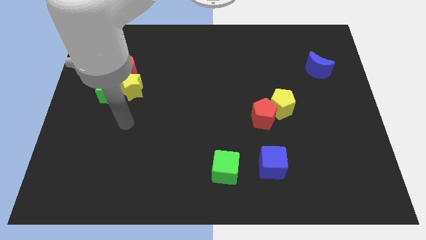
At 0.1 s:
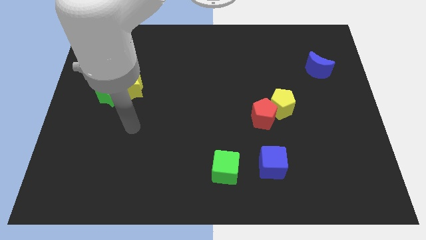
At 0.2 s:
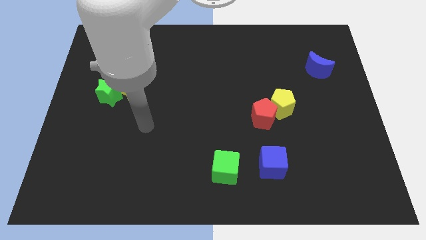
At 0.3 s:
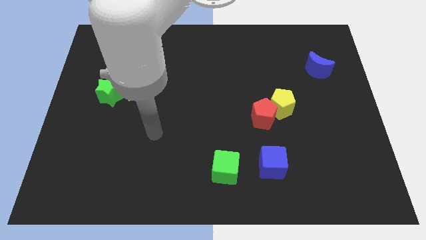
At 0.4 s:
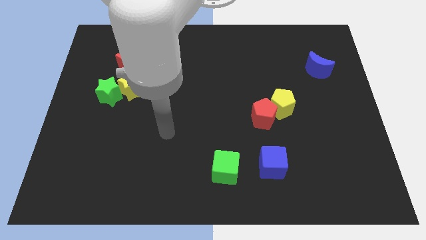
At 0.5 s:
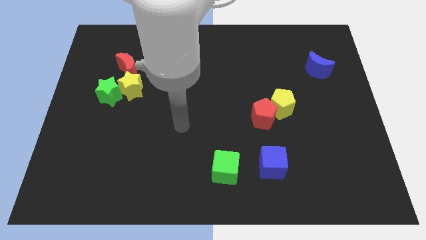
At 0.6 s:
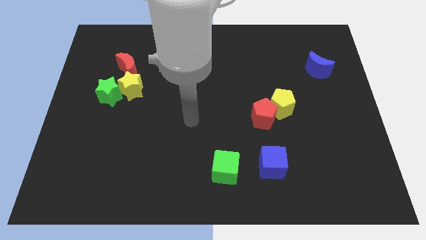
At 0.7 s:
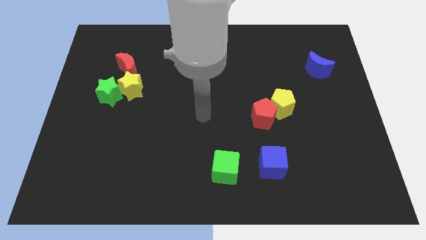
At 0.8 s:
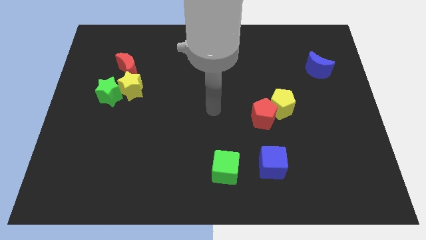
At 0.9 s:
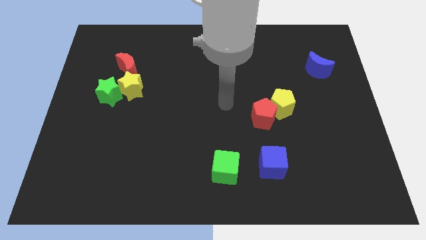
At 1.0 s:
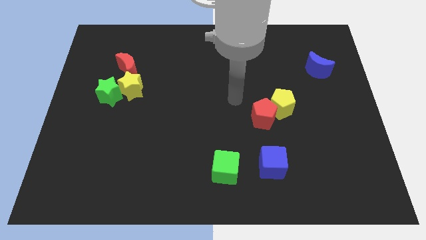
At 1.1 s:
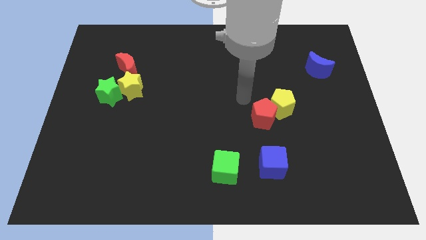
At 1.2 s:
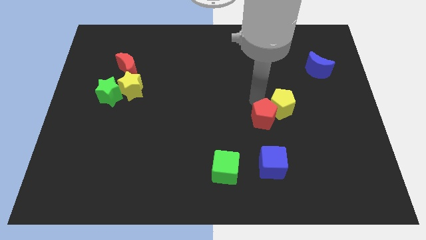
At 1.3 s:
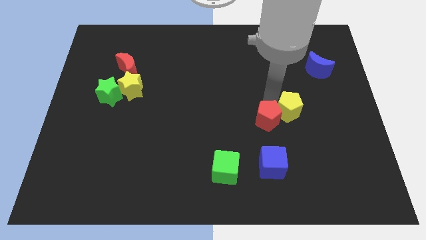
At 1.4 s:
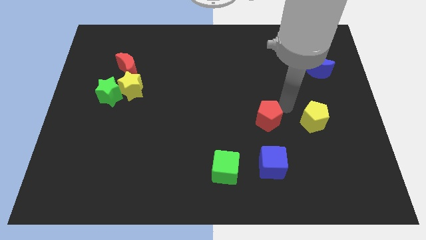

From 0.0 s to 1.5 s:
separate the red pentagon from the yellow pentagon

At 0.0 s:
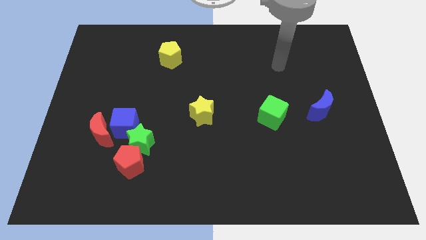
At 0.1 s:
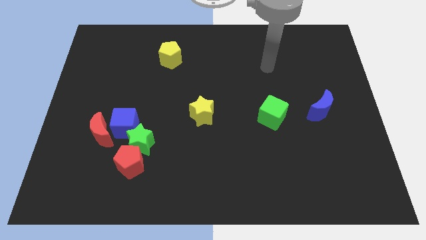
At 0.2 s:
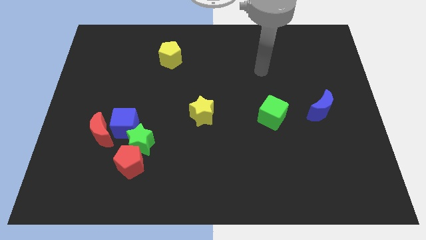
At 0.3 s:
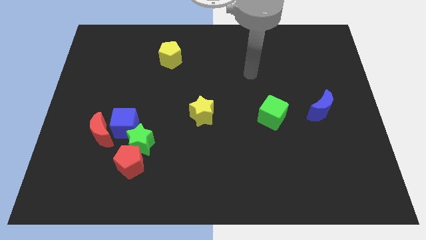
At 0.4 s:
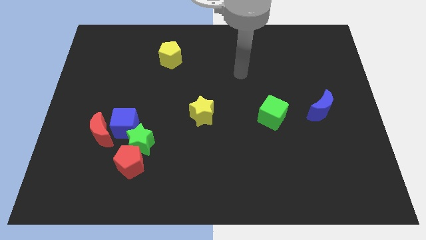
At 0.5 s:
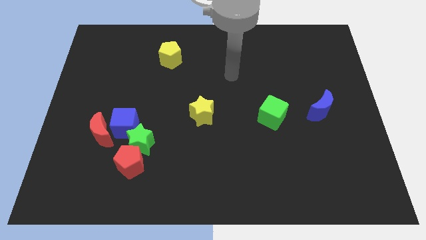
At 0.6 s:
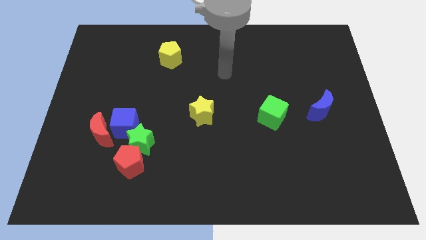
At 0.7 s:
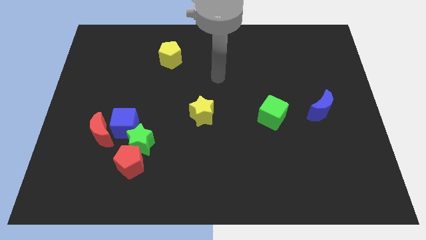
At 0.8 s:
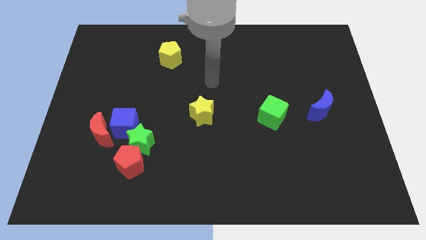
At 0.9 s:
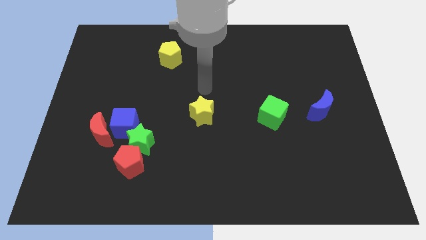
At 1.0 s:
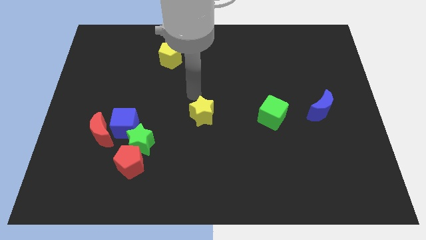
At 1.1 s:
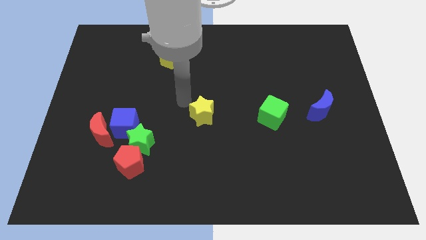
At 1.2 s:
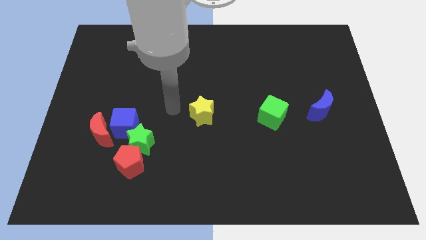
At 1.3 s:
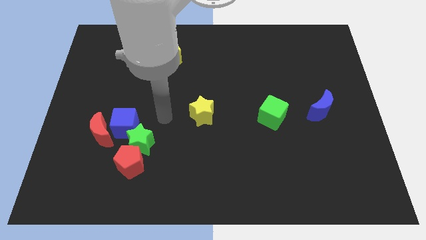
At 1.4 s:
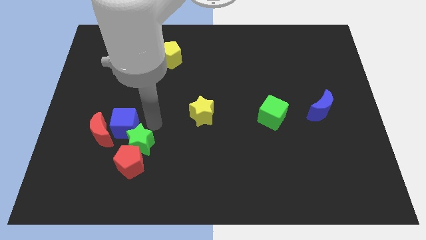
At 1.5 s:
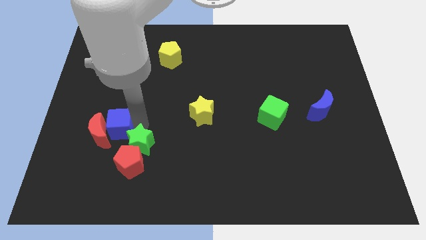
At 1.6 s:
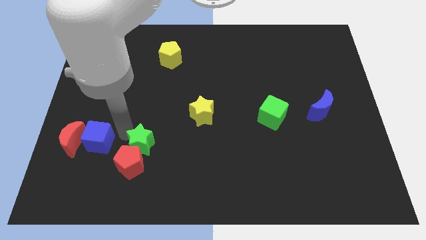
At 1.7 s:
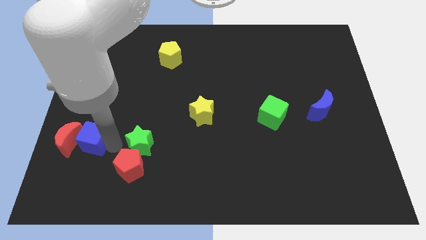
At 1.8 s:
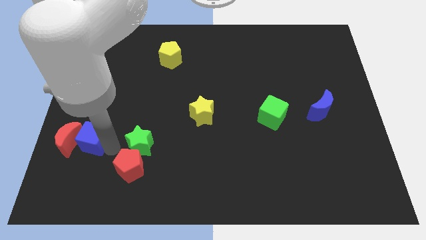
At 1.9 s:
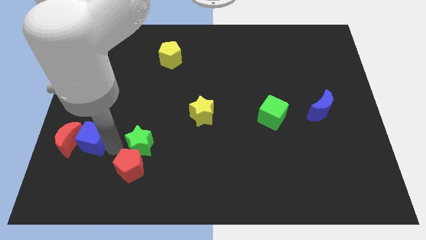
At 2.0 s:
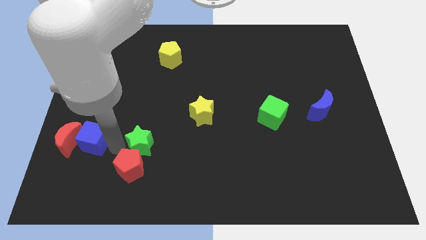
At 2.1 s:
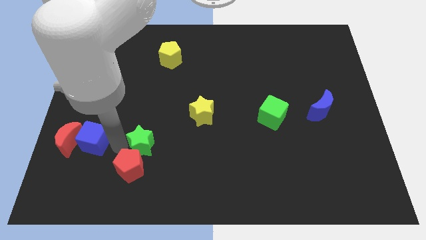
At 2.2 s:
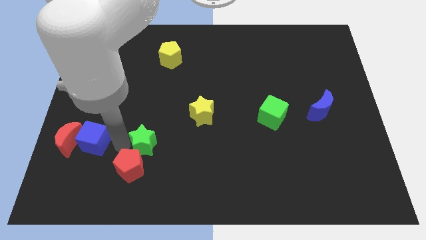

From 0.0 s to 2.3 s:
move the green star away from the group

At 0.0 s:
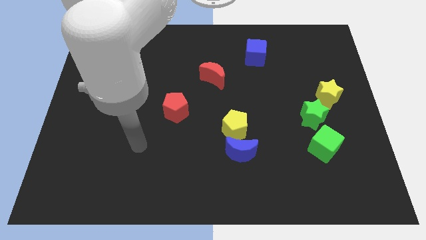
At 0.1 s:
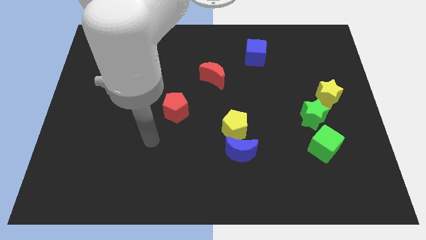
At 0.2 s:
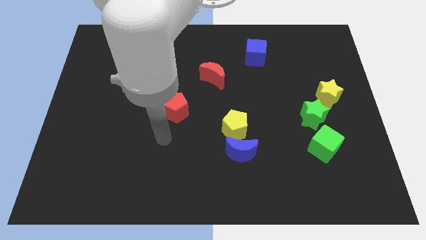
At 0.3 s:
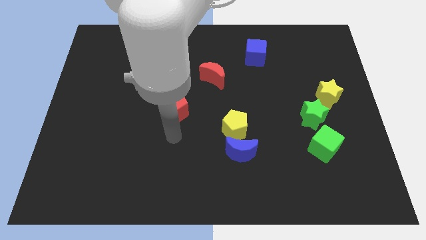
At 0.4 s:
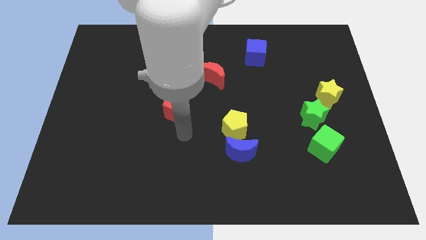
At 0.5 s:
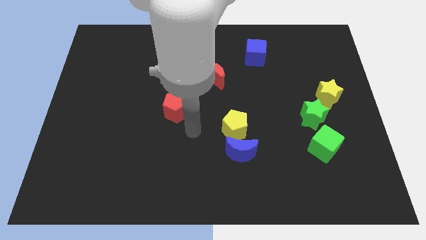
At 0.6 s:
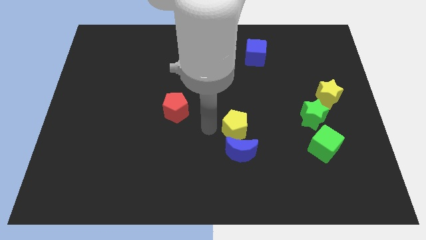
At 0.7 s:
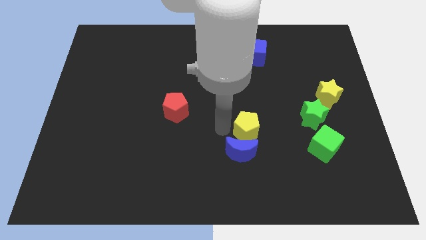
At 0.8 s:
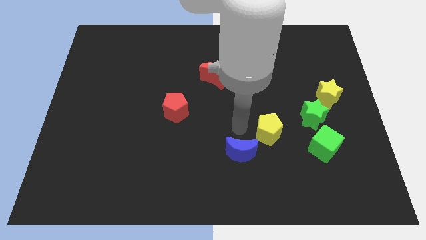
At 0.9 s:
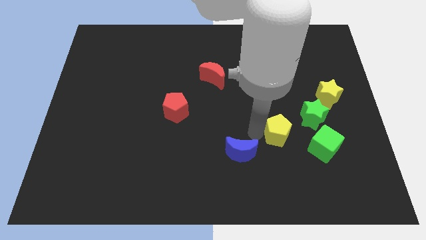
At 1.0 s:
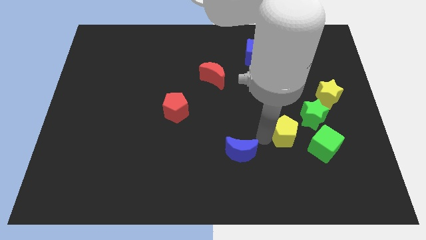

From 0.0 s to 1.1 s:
move the blue moon away from the yellow pentagon

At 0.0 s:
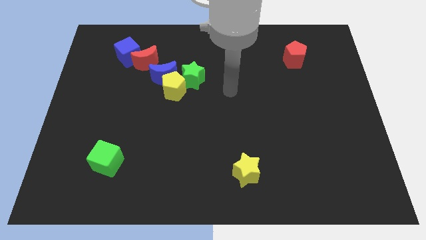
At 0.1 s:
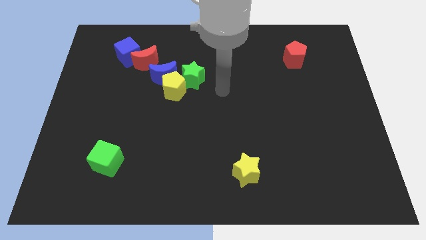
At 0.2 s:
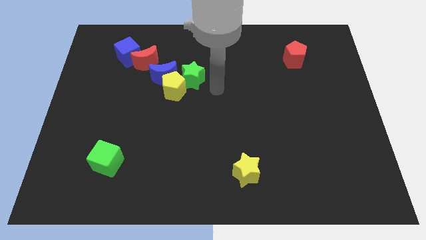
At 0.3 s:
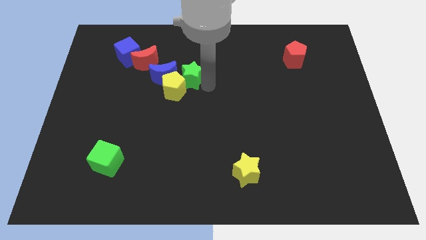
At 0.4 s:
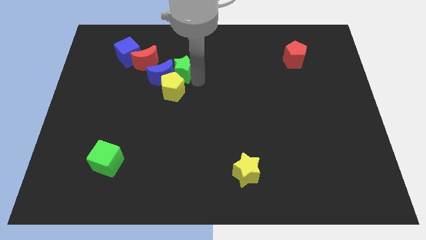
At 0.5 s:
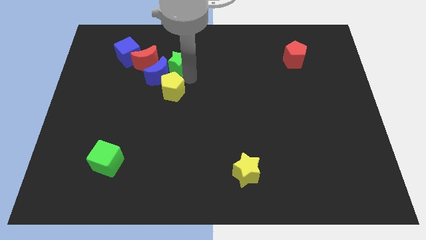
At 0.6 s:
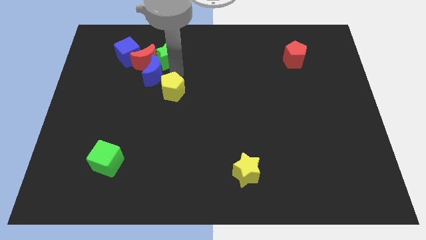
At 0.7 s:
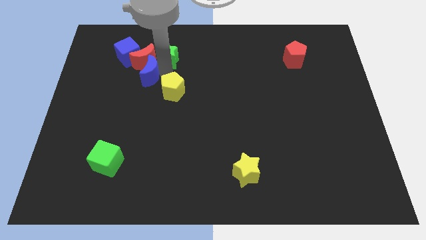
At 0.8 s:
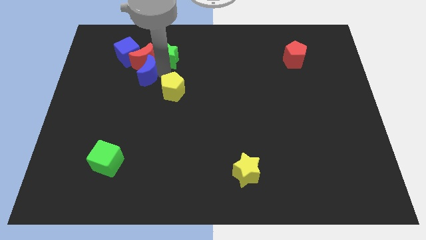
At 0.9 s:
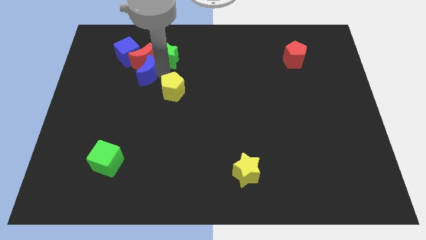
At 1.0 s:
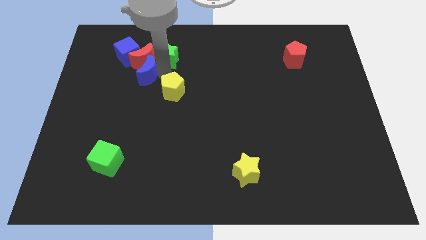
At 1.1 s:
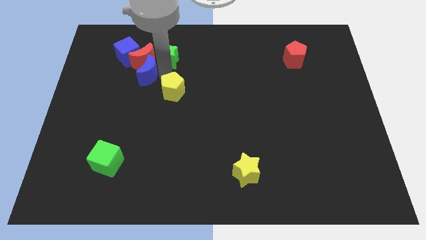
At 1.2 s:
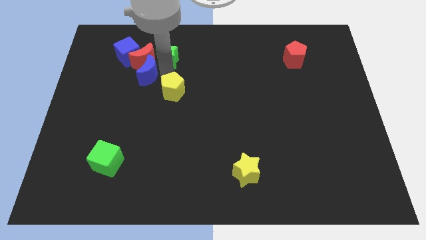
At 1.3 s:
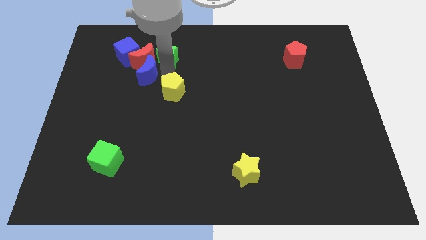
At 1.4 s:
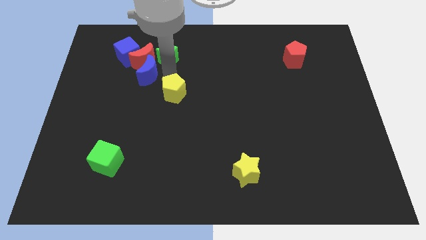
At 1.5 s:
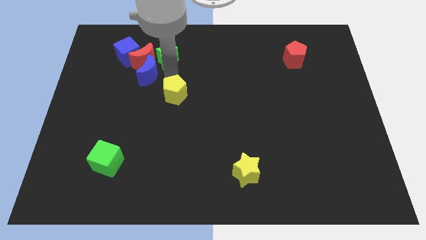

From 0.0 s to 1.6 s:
move the yellow pentagon away from the blue moon and green star

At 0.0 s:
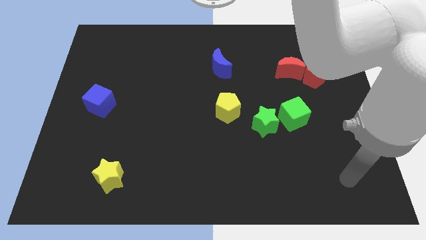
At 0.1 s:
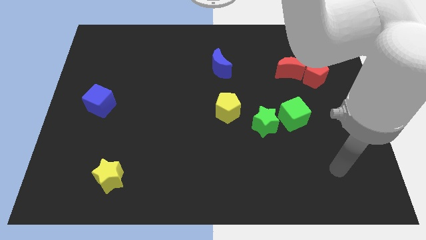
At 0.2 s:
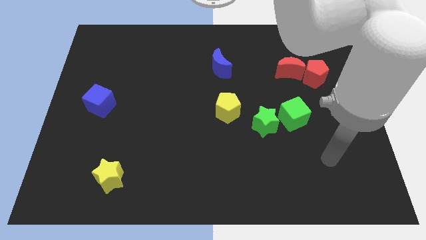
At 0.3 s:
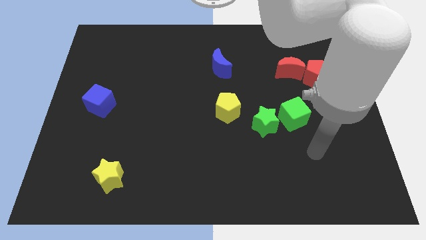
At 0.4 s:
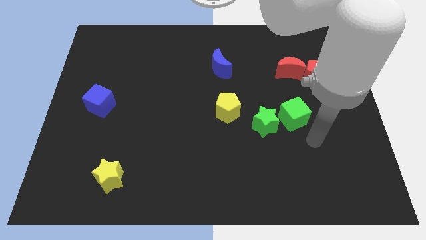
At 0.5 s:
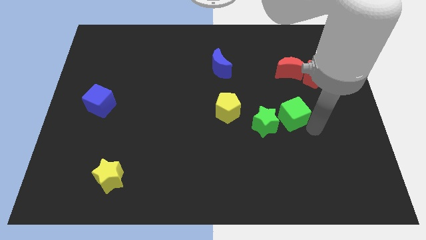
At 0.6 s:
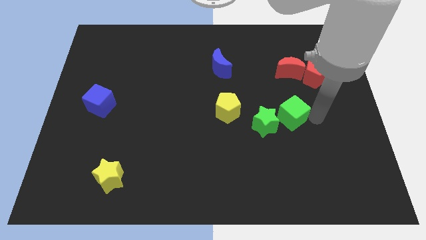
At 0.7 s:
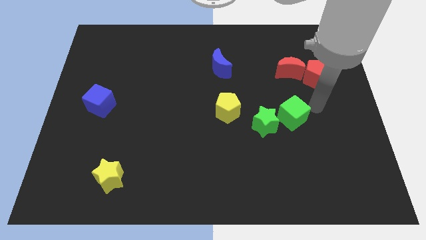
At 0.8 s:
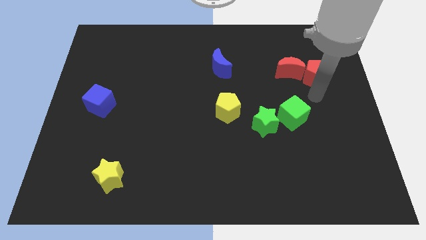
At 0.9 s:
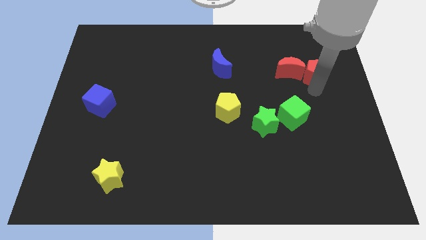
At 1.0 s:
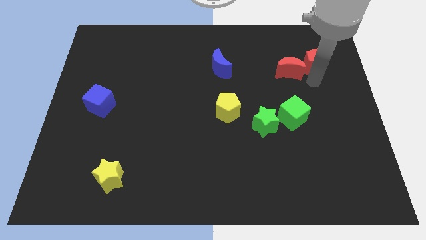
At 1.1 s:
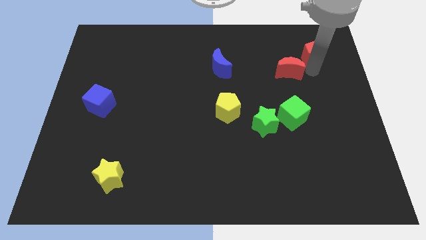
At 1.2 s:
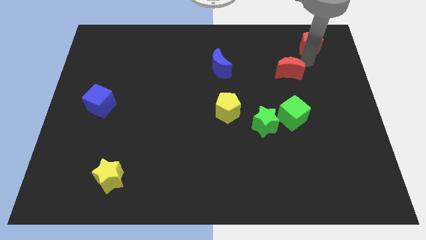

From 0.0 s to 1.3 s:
pull the red moon apart from the red pentagon

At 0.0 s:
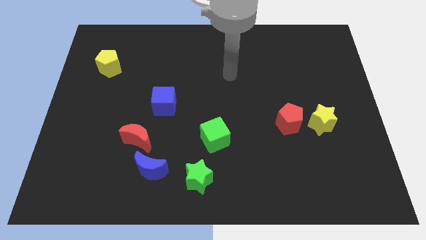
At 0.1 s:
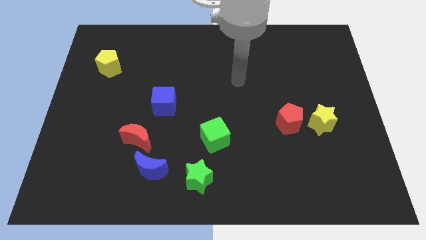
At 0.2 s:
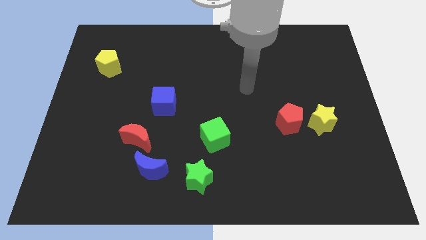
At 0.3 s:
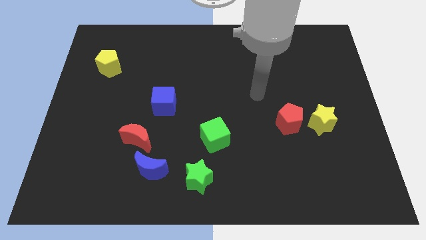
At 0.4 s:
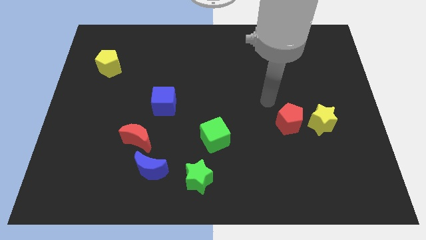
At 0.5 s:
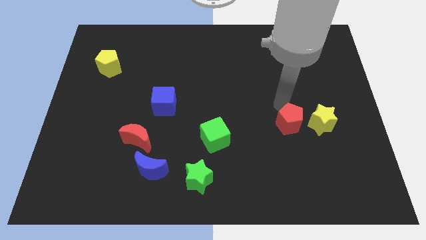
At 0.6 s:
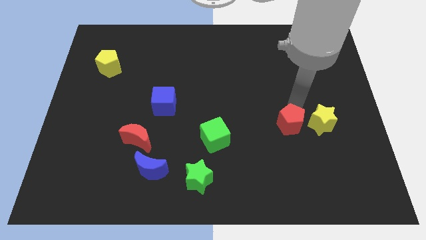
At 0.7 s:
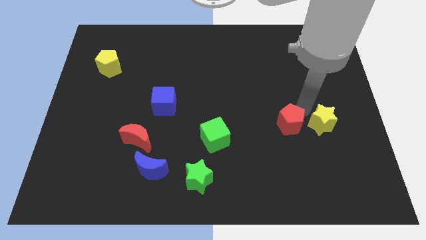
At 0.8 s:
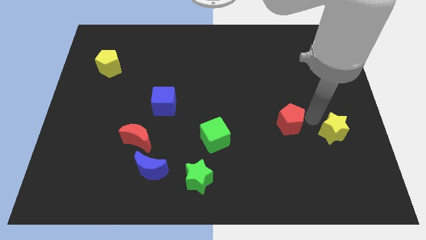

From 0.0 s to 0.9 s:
move the red pentagon away from the yellow star

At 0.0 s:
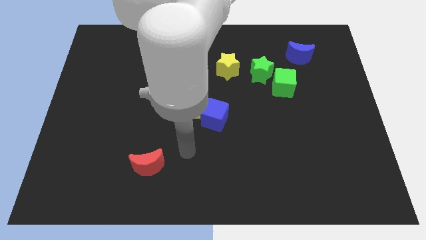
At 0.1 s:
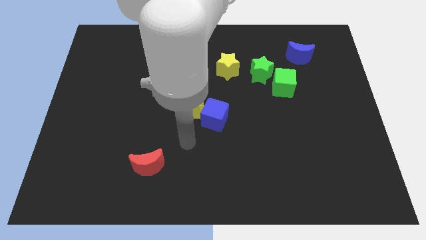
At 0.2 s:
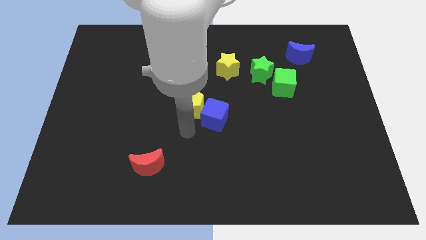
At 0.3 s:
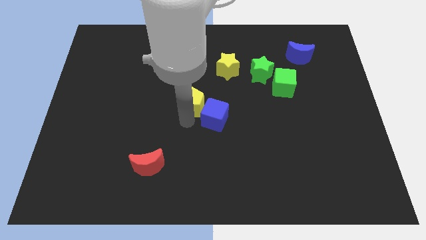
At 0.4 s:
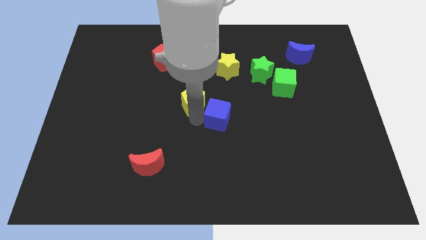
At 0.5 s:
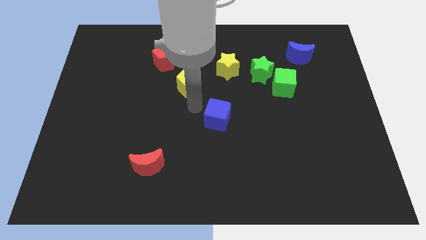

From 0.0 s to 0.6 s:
separate the blue cube from the yellow pentagon
